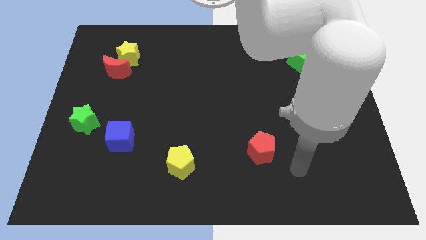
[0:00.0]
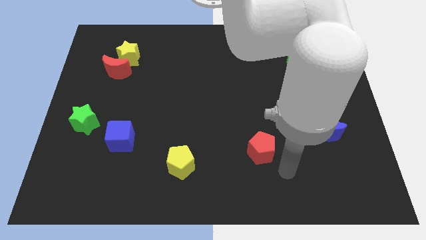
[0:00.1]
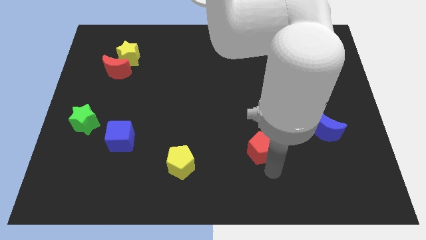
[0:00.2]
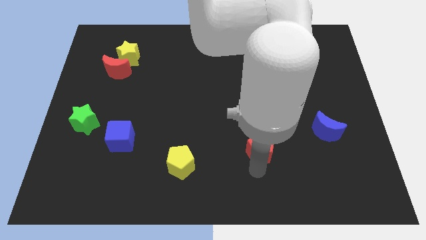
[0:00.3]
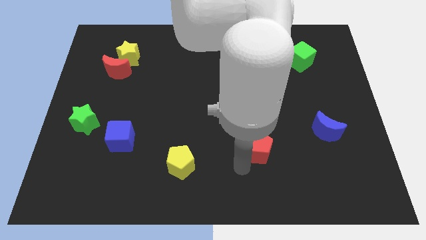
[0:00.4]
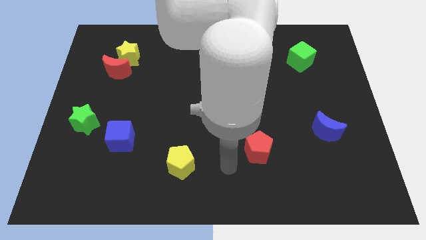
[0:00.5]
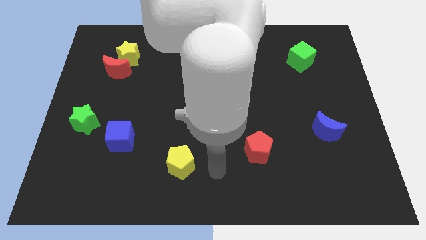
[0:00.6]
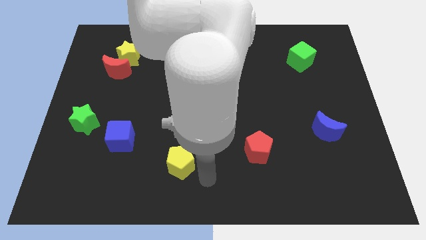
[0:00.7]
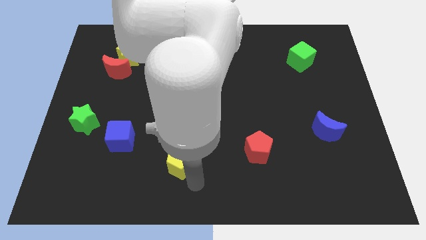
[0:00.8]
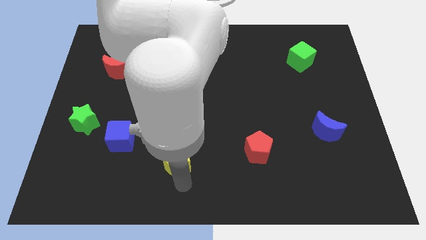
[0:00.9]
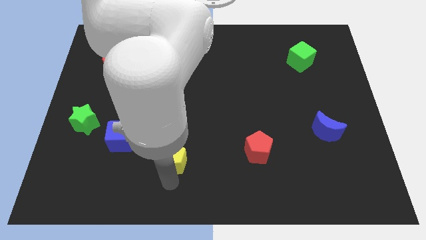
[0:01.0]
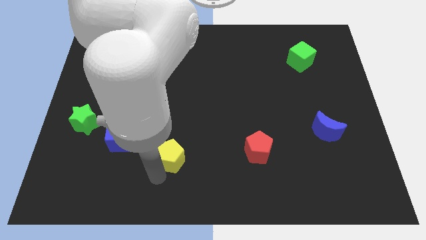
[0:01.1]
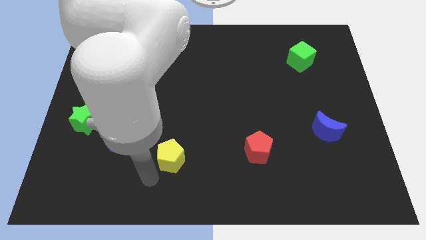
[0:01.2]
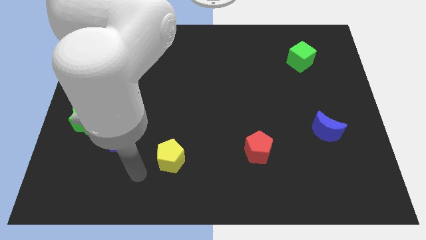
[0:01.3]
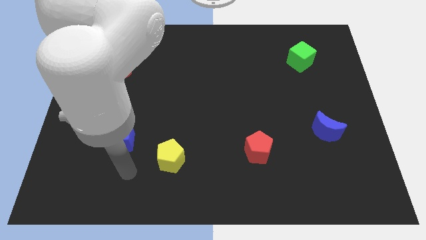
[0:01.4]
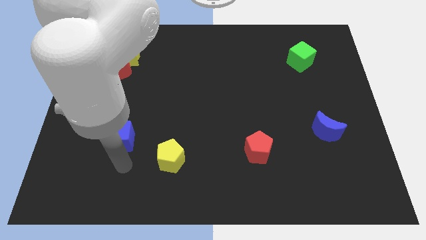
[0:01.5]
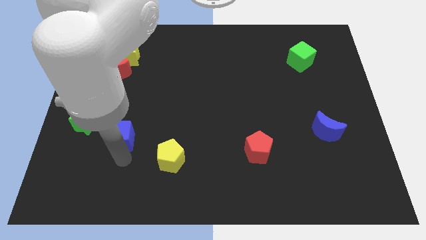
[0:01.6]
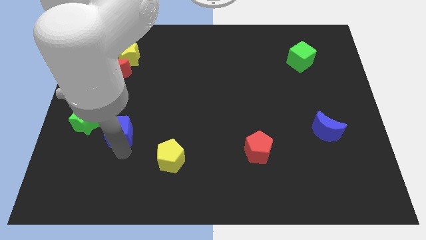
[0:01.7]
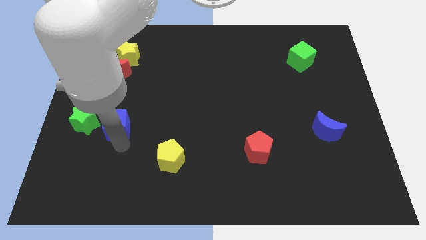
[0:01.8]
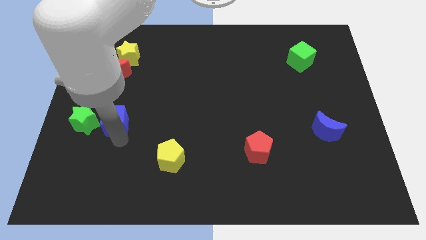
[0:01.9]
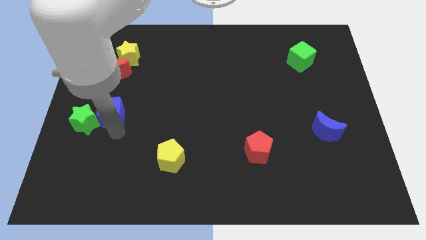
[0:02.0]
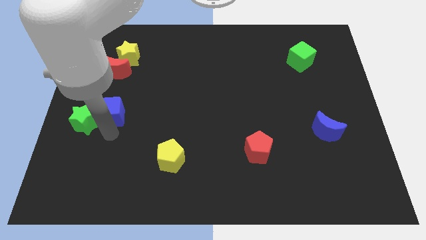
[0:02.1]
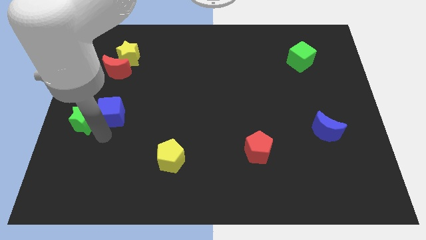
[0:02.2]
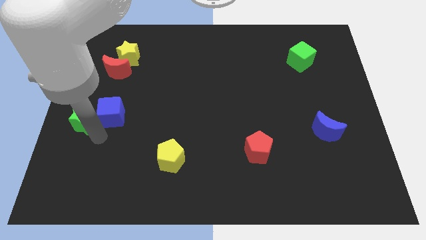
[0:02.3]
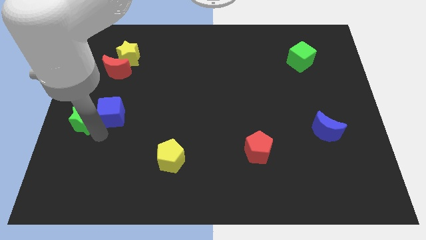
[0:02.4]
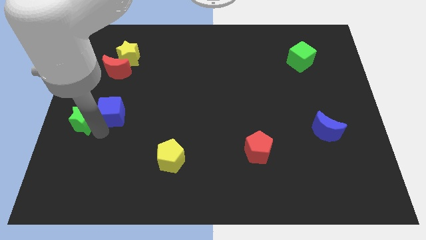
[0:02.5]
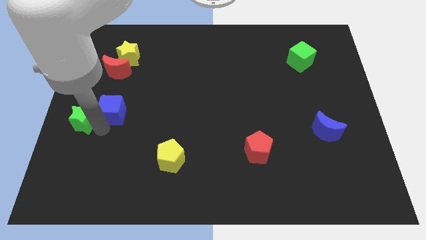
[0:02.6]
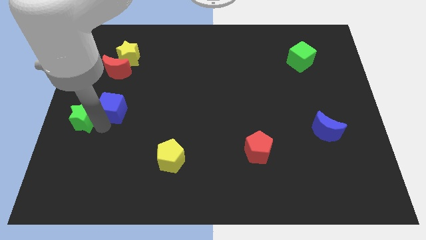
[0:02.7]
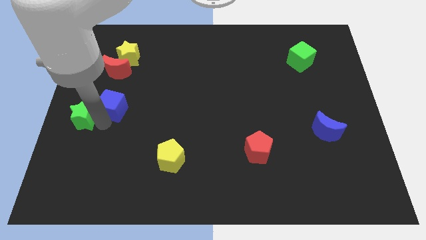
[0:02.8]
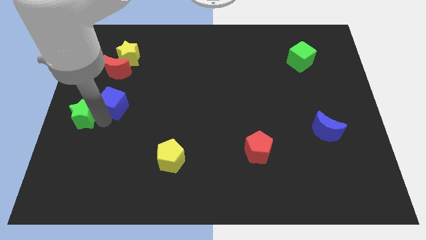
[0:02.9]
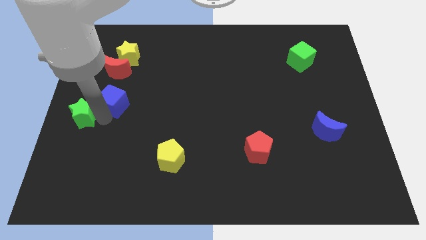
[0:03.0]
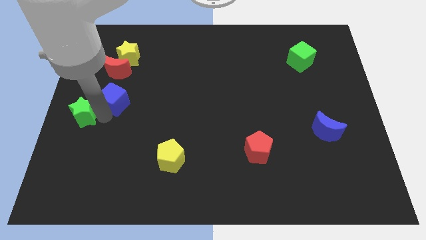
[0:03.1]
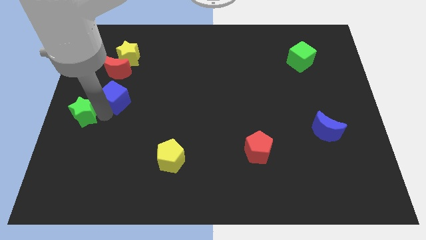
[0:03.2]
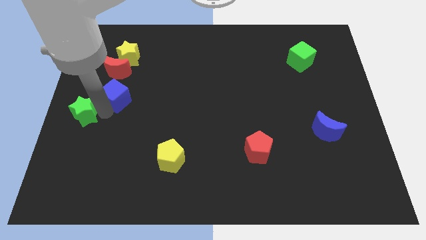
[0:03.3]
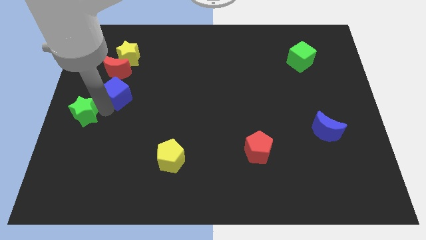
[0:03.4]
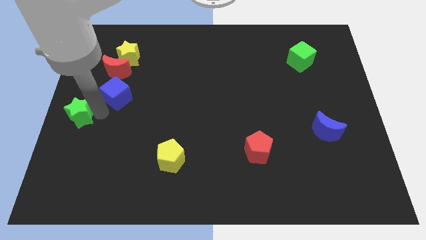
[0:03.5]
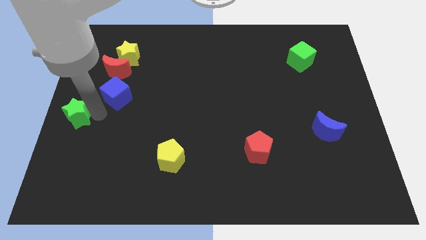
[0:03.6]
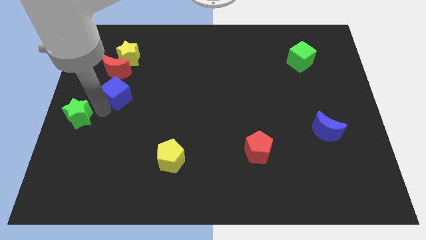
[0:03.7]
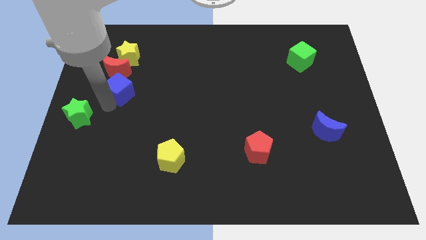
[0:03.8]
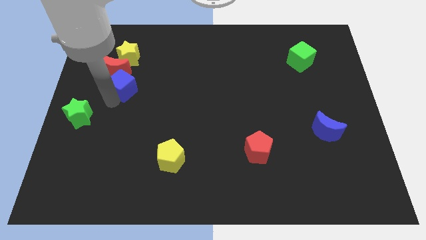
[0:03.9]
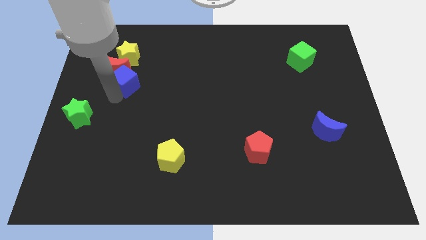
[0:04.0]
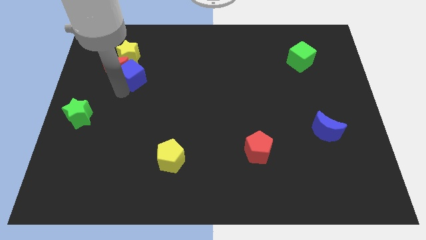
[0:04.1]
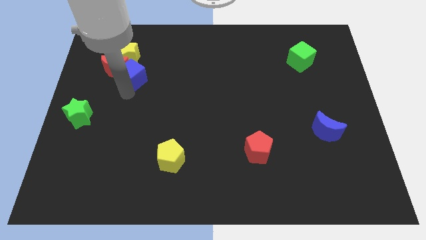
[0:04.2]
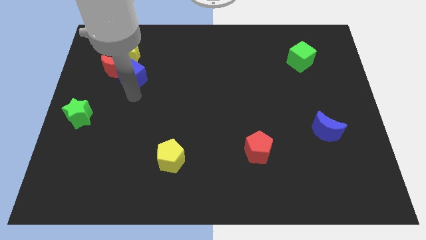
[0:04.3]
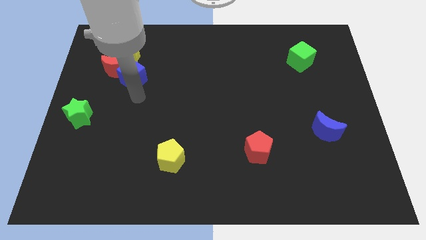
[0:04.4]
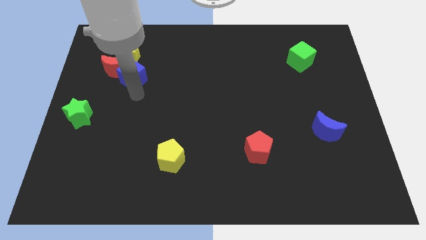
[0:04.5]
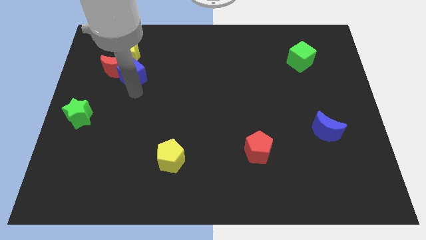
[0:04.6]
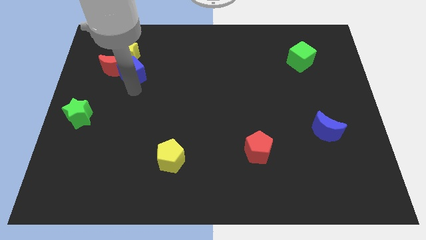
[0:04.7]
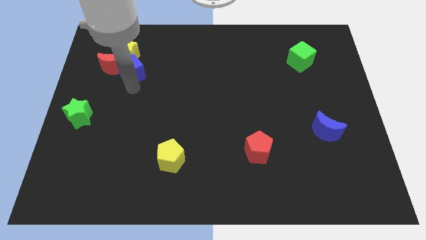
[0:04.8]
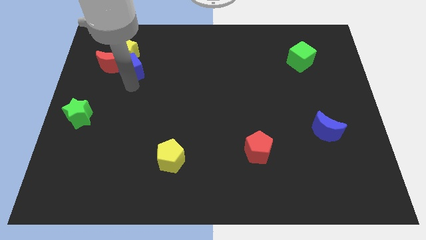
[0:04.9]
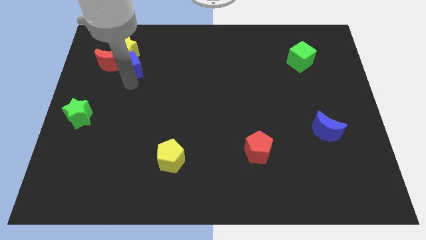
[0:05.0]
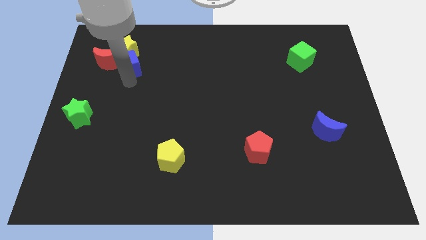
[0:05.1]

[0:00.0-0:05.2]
put the blue cube towards the yellow star

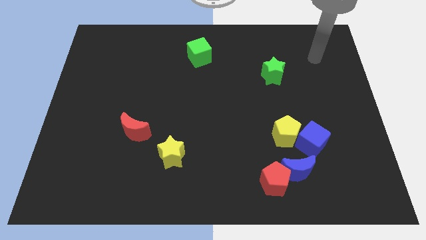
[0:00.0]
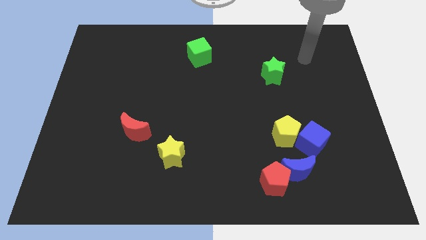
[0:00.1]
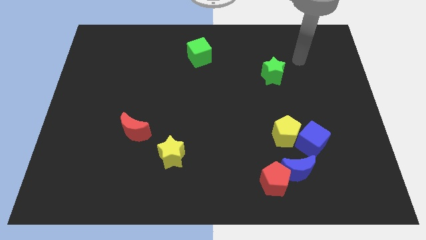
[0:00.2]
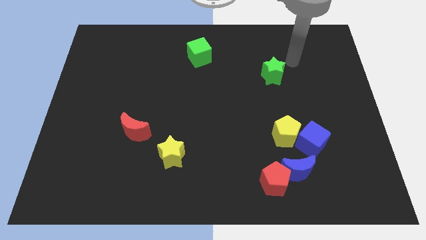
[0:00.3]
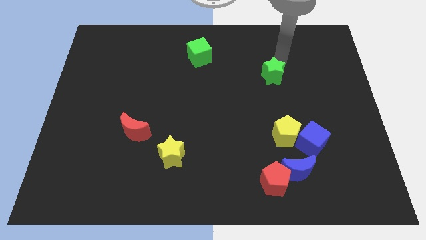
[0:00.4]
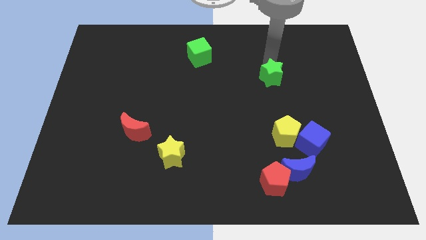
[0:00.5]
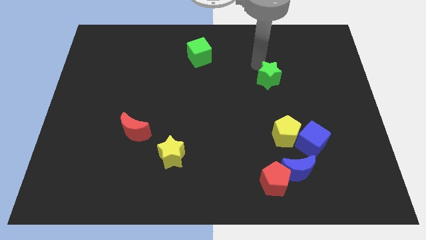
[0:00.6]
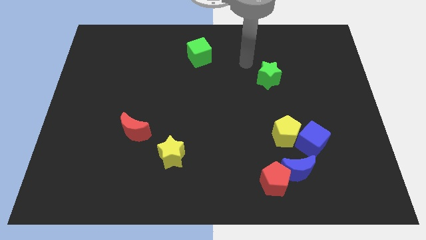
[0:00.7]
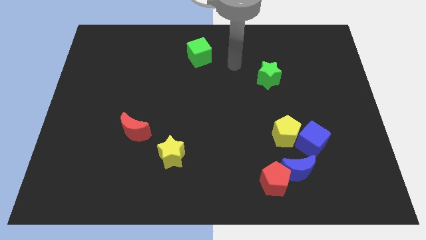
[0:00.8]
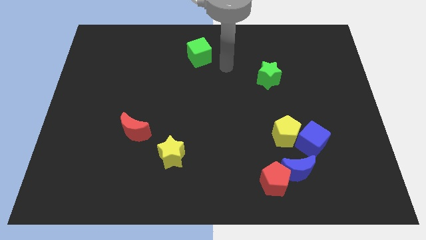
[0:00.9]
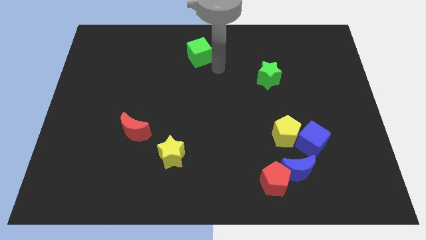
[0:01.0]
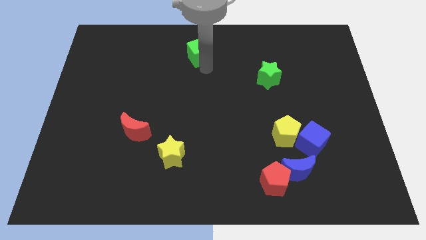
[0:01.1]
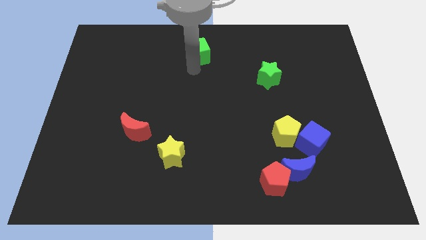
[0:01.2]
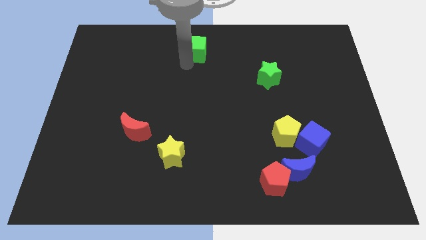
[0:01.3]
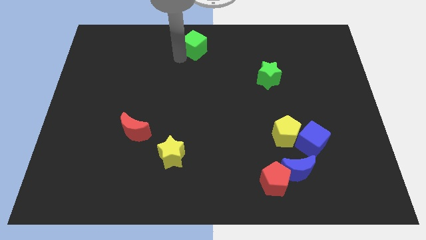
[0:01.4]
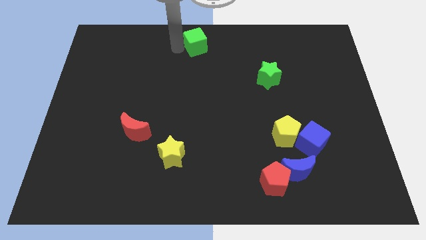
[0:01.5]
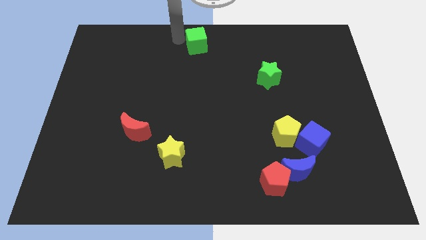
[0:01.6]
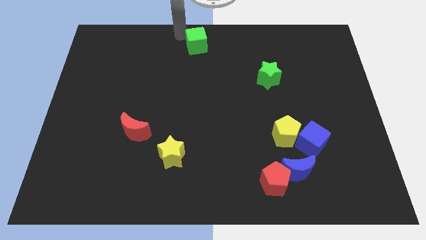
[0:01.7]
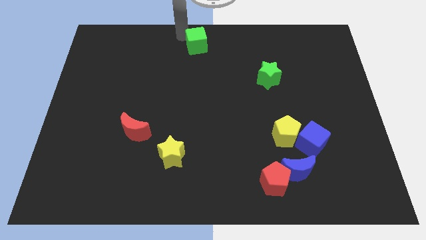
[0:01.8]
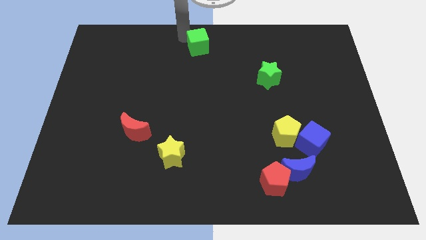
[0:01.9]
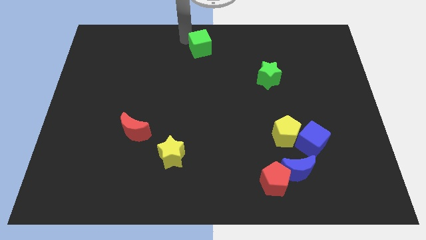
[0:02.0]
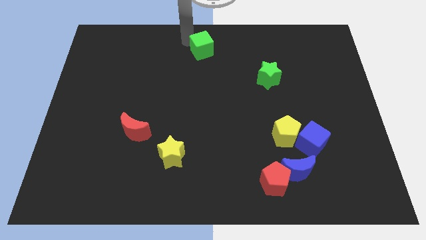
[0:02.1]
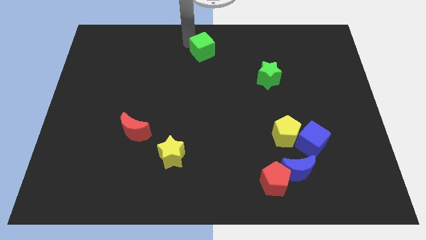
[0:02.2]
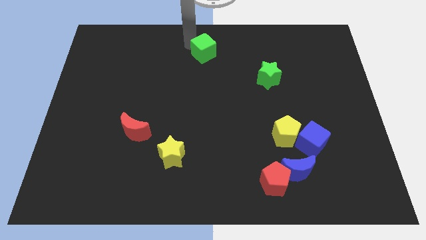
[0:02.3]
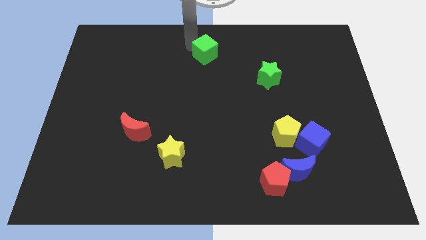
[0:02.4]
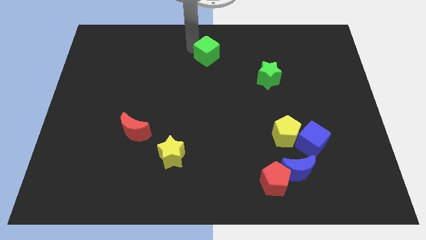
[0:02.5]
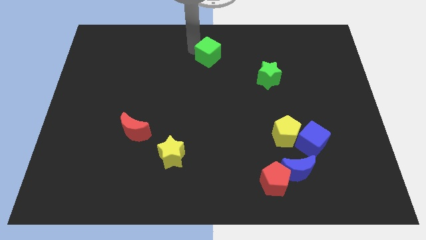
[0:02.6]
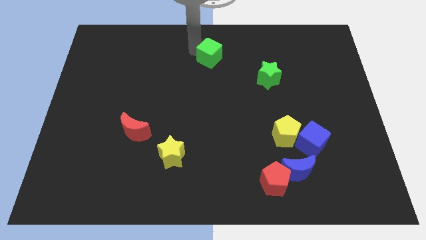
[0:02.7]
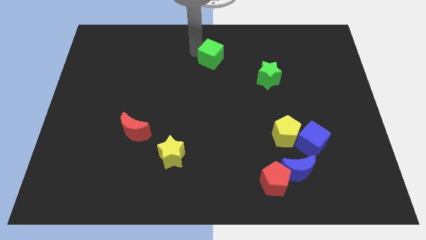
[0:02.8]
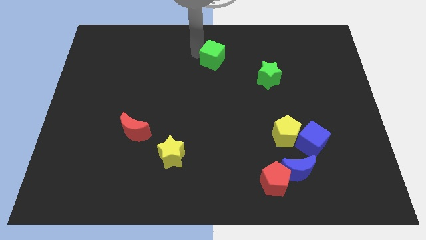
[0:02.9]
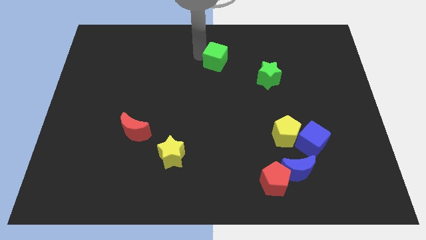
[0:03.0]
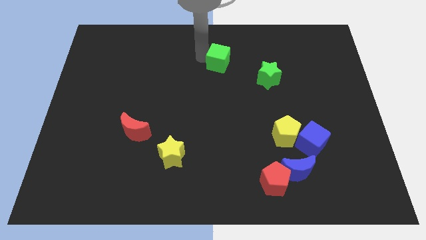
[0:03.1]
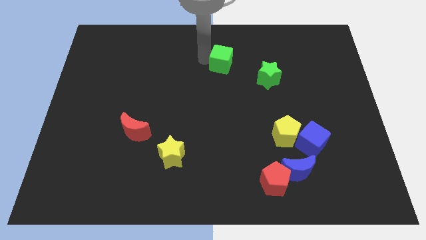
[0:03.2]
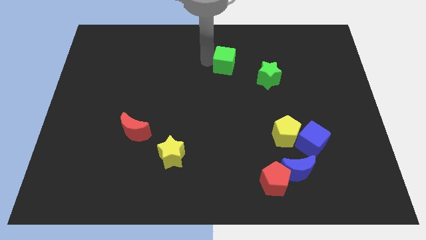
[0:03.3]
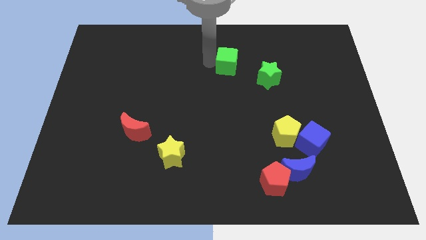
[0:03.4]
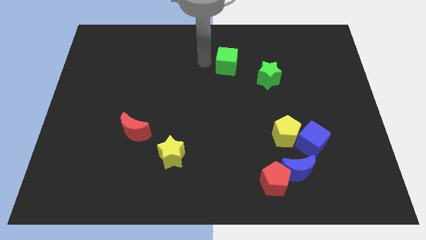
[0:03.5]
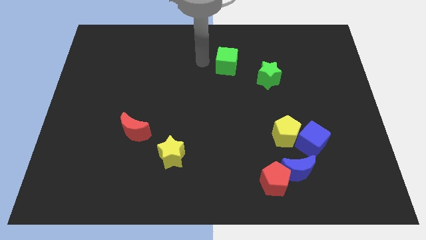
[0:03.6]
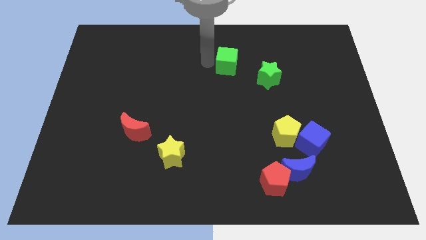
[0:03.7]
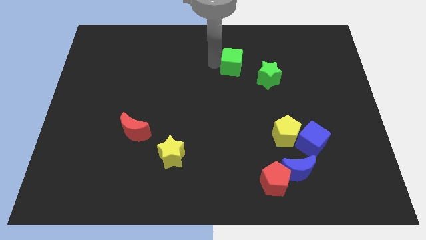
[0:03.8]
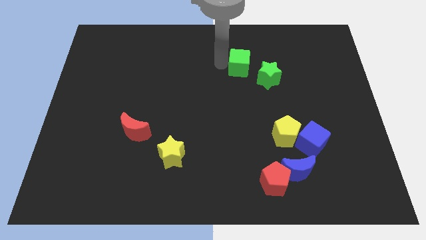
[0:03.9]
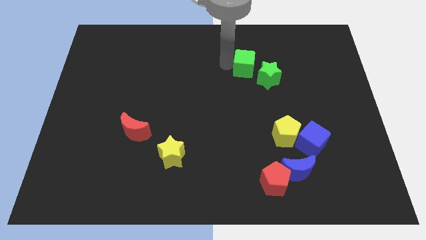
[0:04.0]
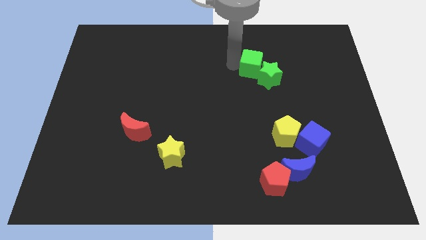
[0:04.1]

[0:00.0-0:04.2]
slide the green cube to the green star
